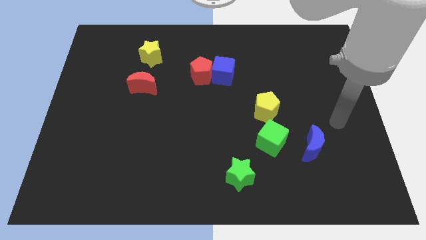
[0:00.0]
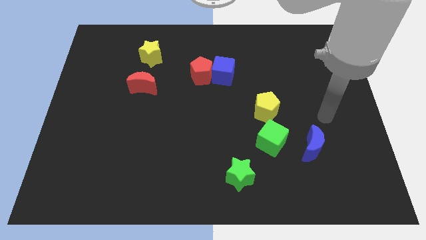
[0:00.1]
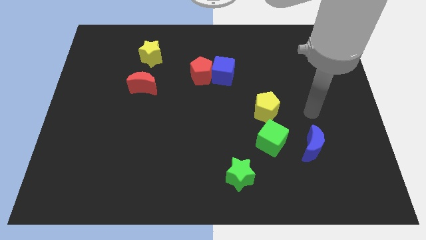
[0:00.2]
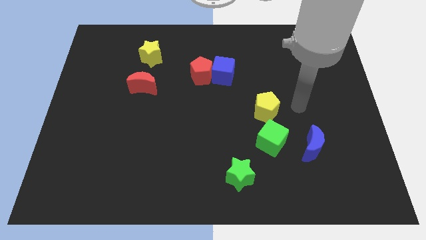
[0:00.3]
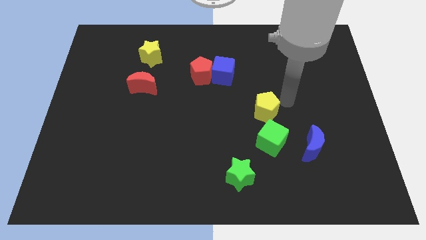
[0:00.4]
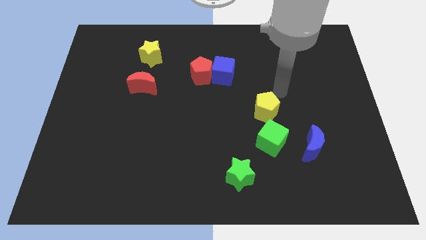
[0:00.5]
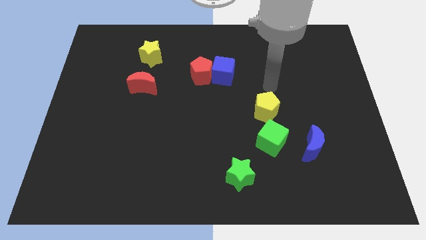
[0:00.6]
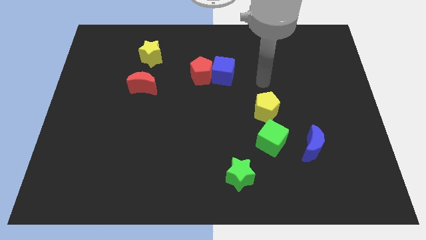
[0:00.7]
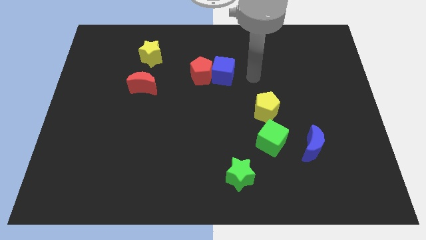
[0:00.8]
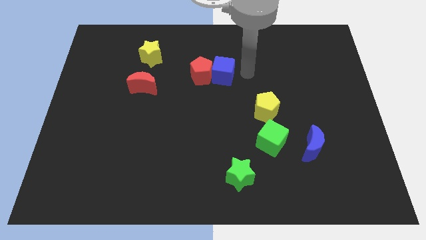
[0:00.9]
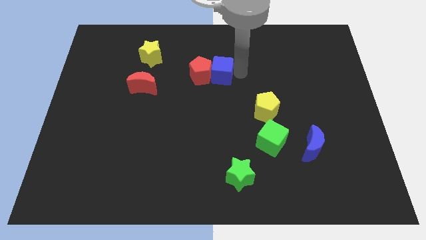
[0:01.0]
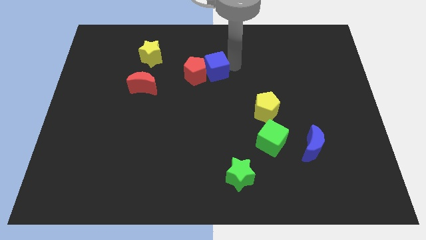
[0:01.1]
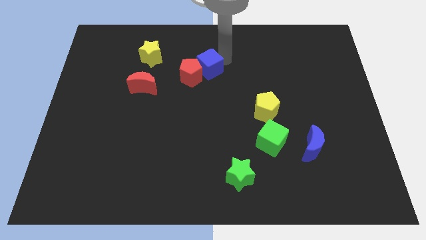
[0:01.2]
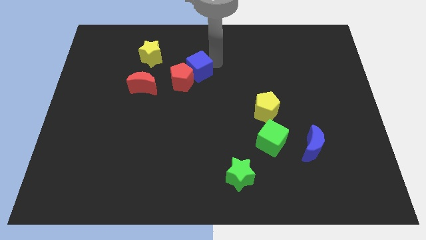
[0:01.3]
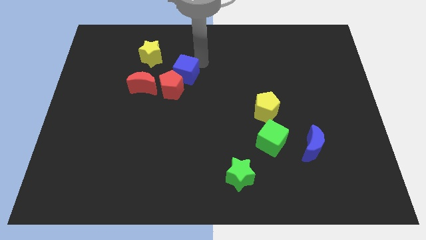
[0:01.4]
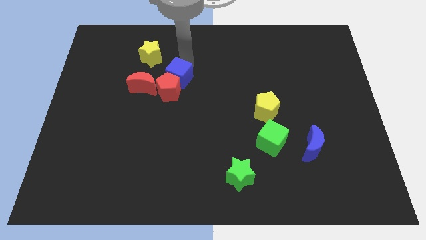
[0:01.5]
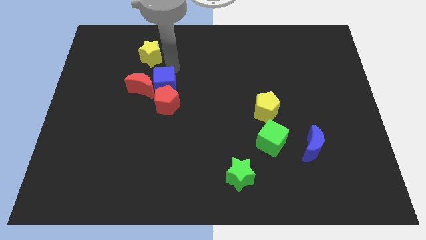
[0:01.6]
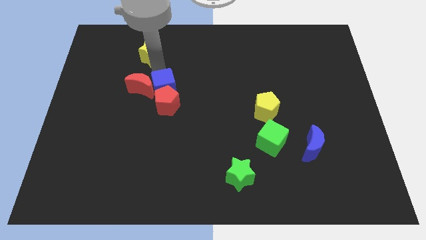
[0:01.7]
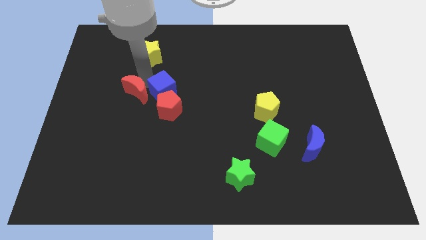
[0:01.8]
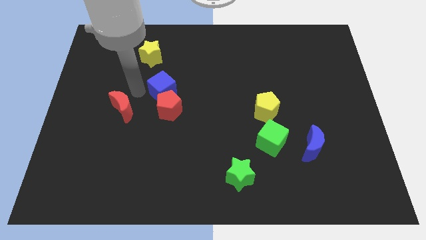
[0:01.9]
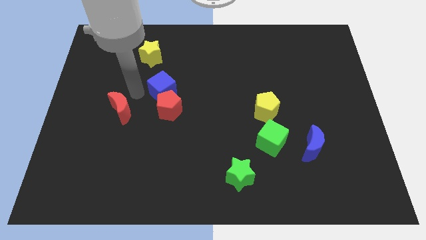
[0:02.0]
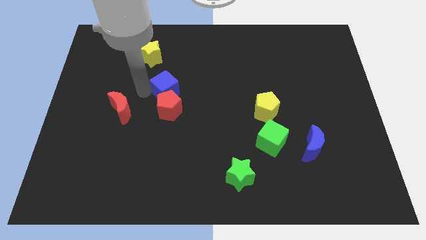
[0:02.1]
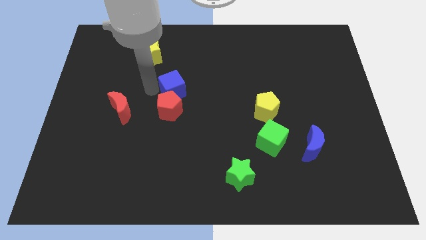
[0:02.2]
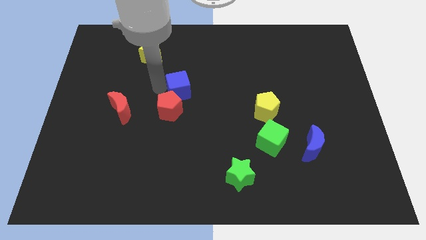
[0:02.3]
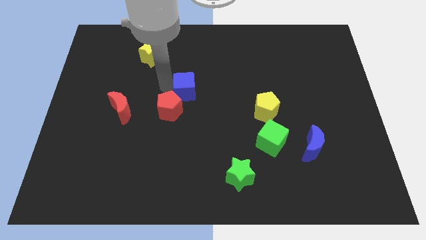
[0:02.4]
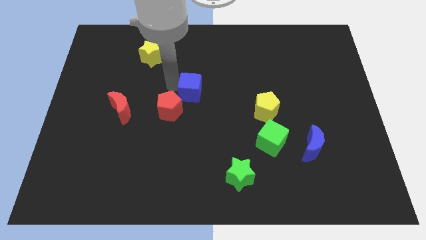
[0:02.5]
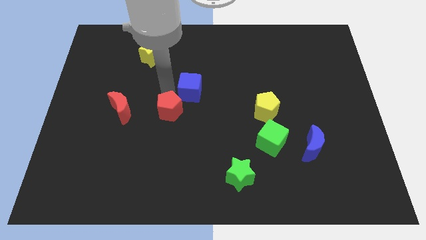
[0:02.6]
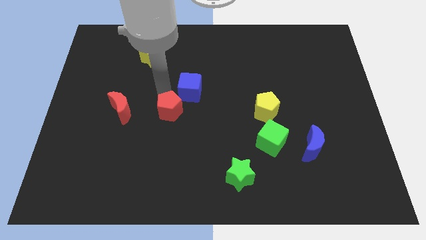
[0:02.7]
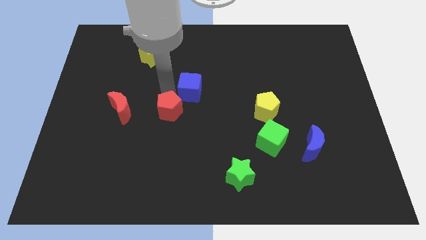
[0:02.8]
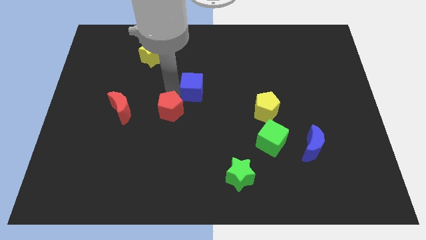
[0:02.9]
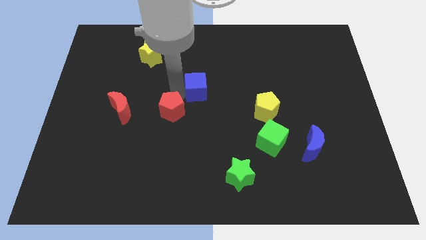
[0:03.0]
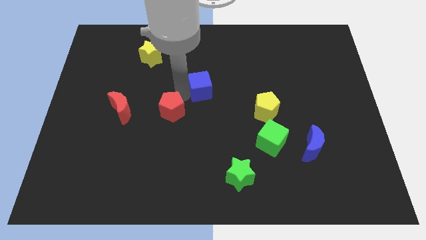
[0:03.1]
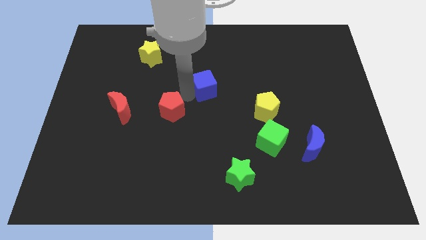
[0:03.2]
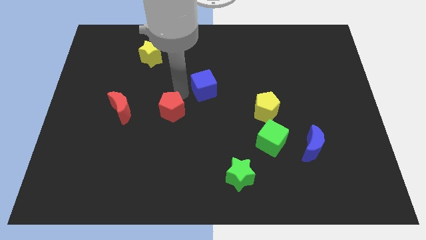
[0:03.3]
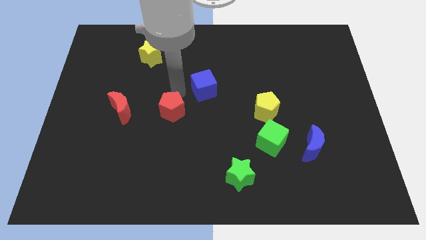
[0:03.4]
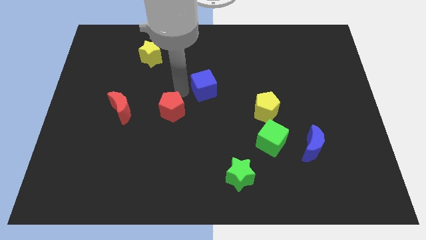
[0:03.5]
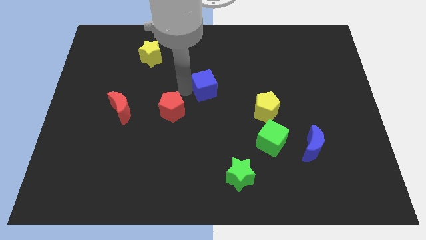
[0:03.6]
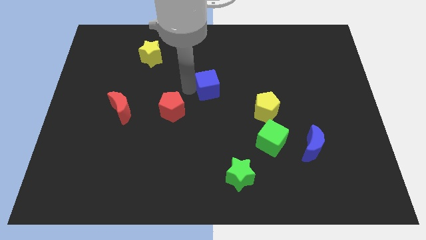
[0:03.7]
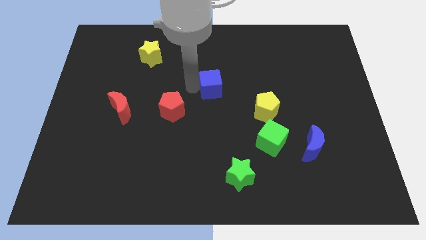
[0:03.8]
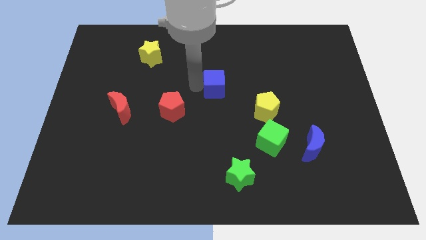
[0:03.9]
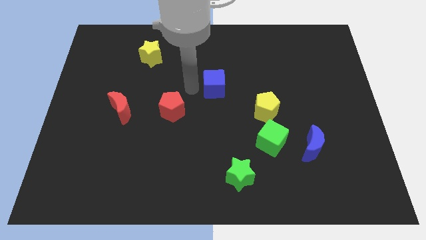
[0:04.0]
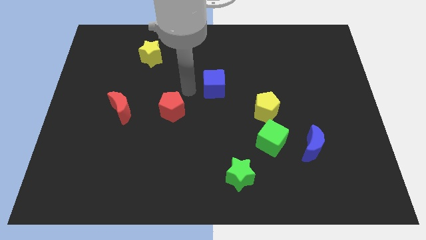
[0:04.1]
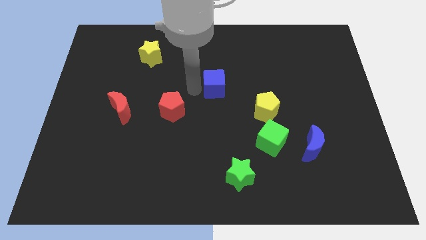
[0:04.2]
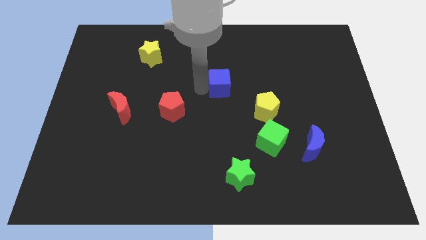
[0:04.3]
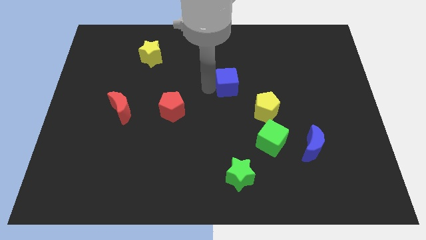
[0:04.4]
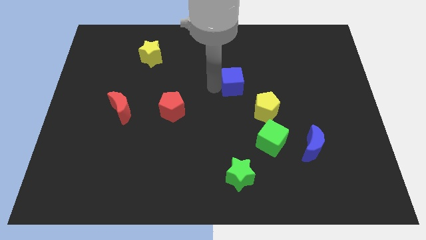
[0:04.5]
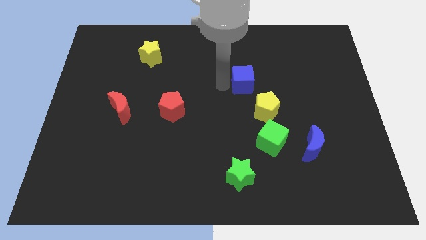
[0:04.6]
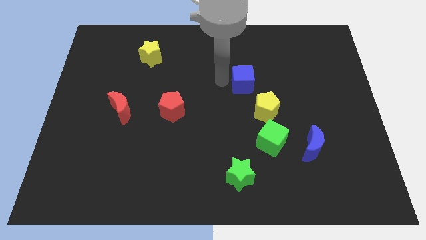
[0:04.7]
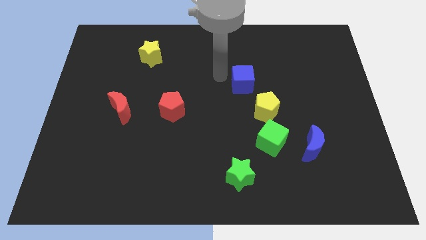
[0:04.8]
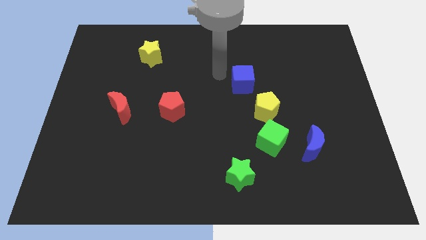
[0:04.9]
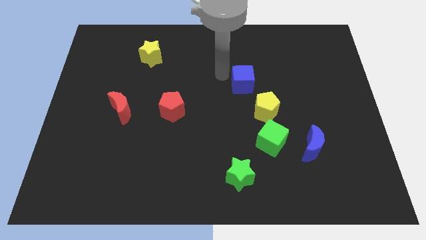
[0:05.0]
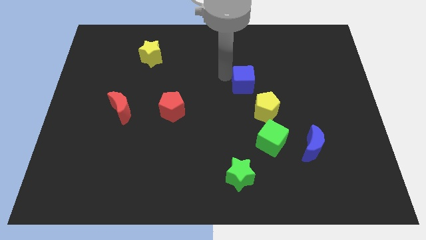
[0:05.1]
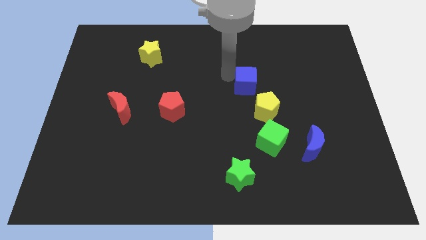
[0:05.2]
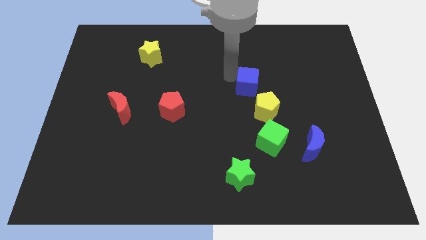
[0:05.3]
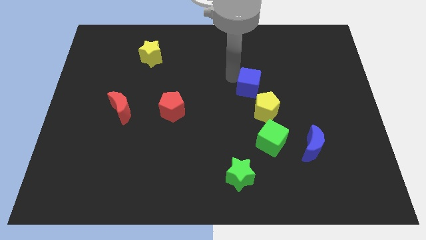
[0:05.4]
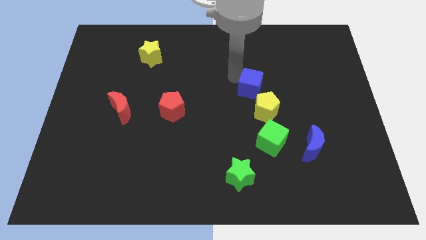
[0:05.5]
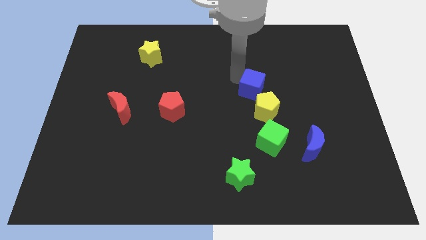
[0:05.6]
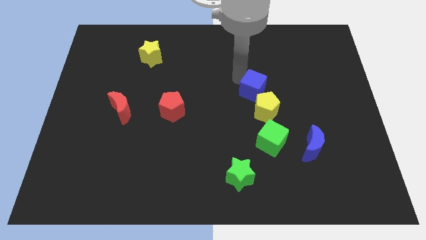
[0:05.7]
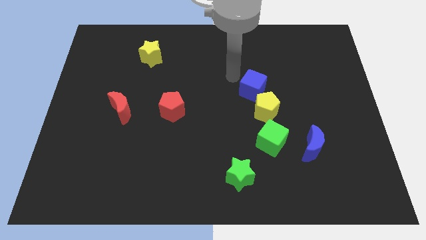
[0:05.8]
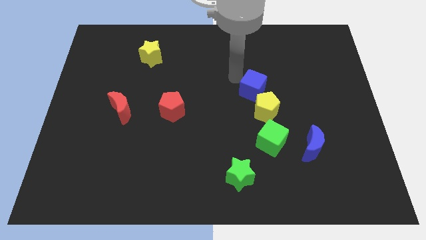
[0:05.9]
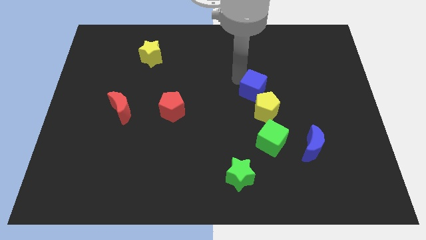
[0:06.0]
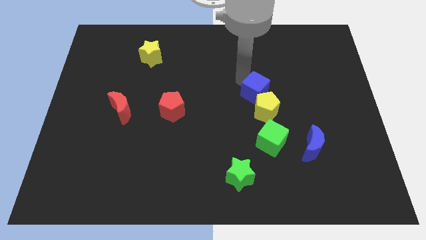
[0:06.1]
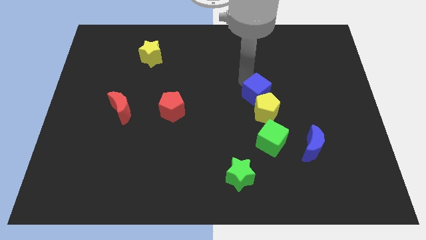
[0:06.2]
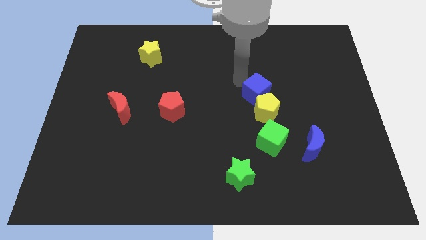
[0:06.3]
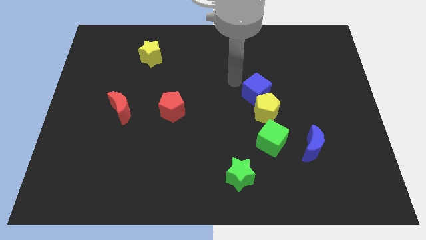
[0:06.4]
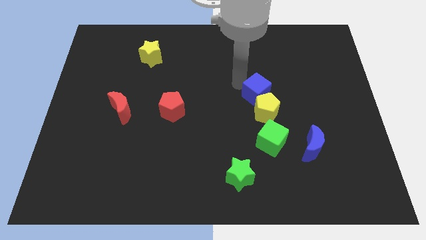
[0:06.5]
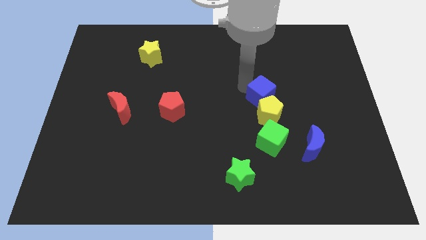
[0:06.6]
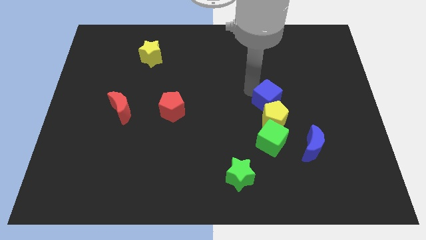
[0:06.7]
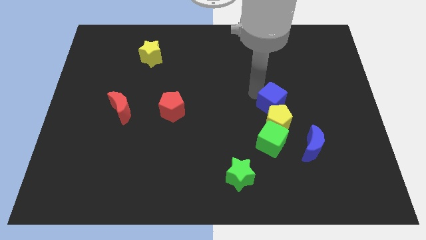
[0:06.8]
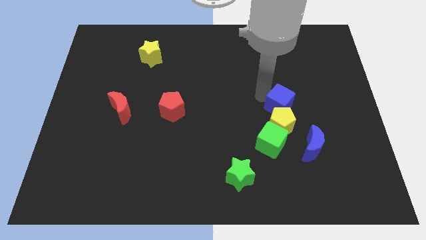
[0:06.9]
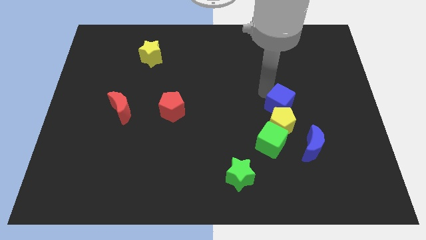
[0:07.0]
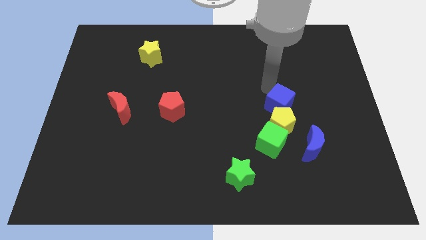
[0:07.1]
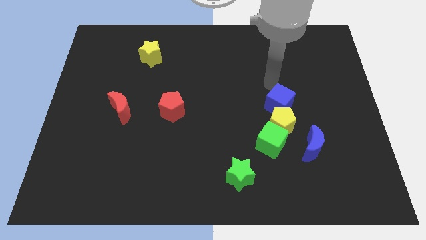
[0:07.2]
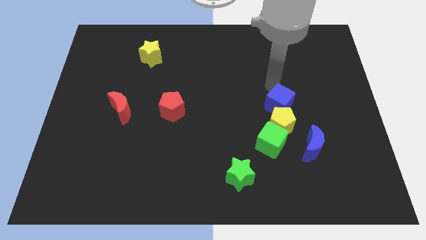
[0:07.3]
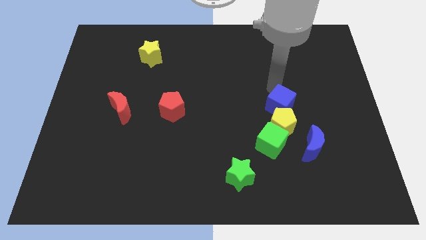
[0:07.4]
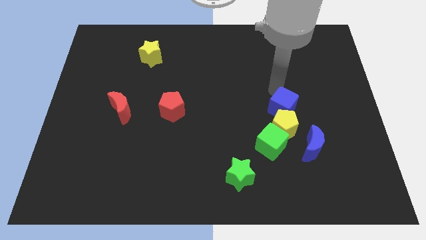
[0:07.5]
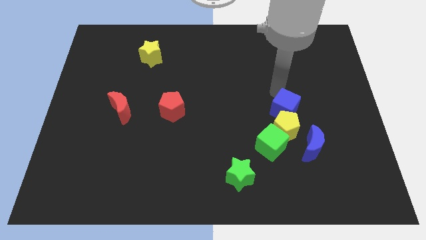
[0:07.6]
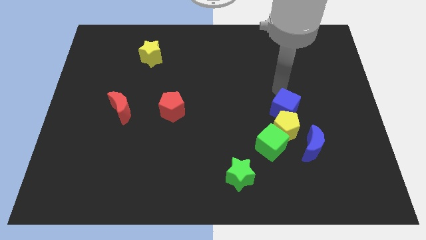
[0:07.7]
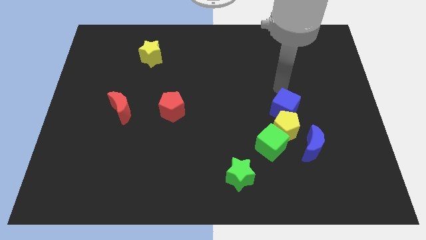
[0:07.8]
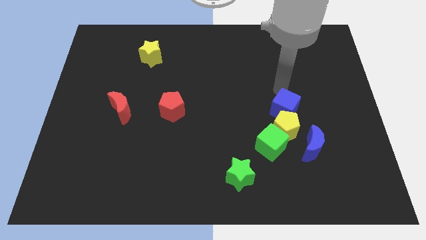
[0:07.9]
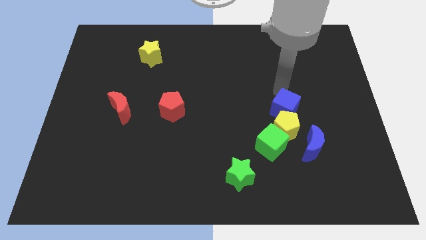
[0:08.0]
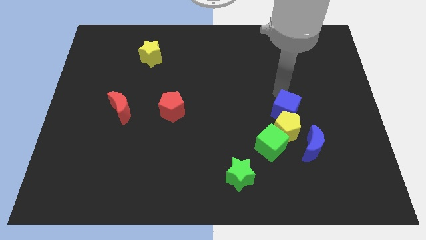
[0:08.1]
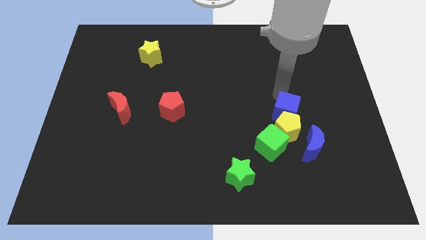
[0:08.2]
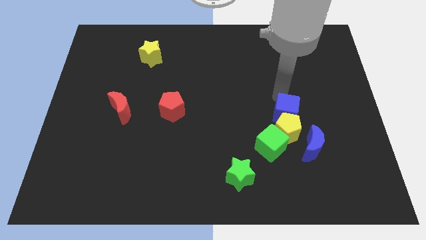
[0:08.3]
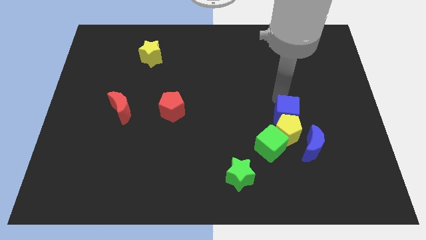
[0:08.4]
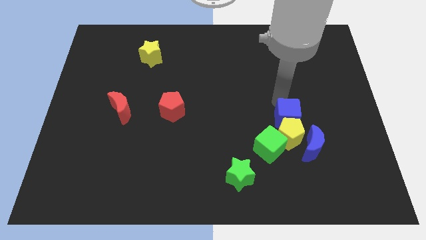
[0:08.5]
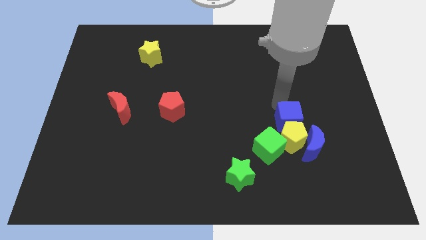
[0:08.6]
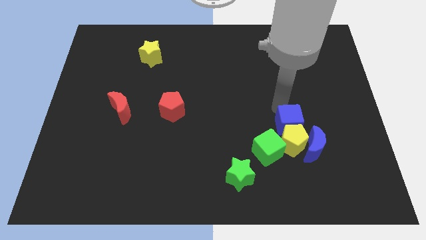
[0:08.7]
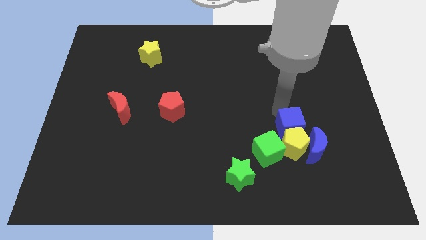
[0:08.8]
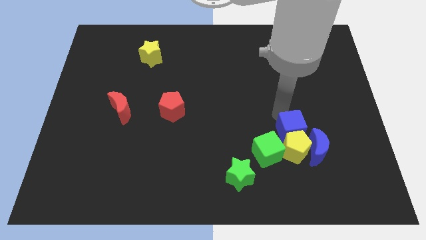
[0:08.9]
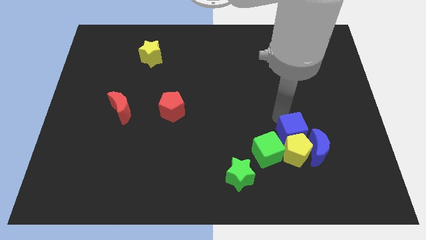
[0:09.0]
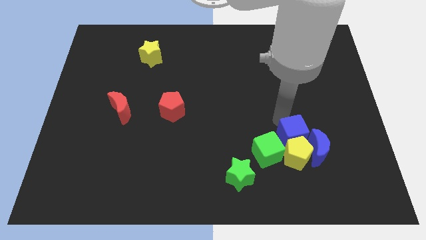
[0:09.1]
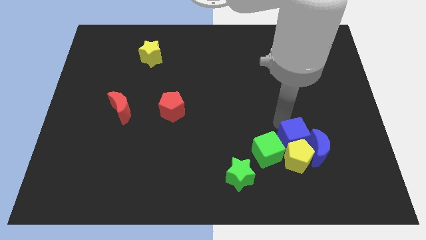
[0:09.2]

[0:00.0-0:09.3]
move the blue cube close to the blue moon
